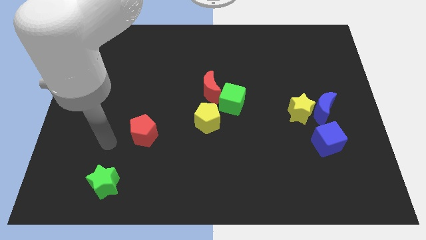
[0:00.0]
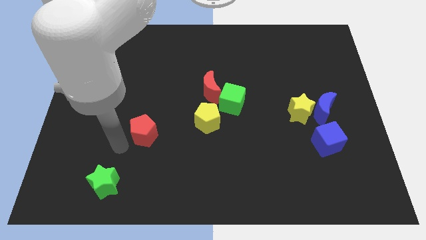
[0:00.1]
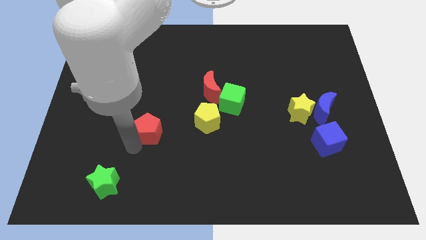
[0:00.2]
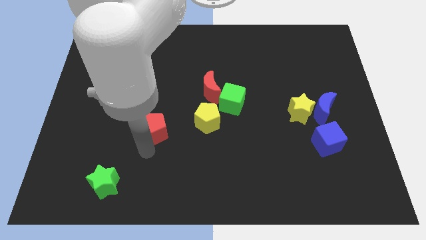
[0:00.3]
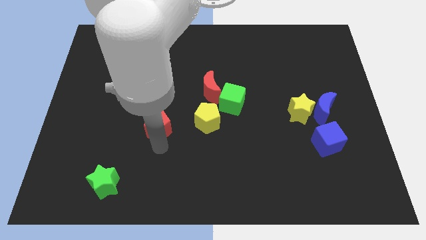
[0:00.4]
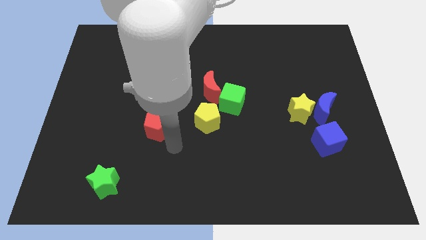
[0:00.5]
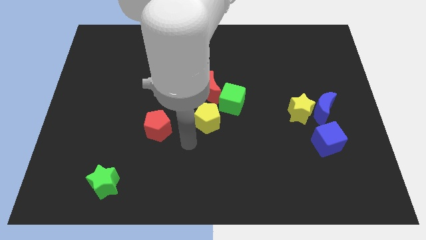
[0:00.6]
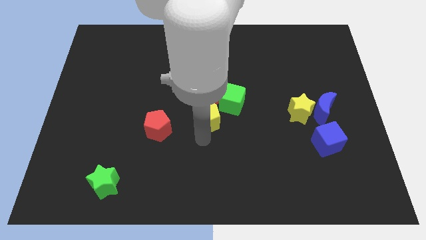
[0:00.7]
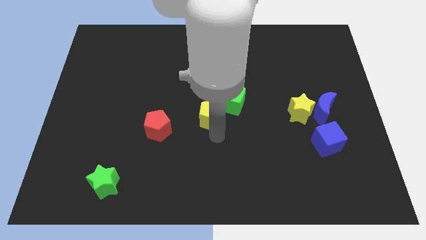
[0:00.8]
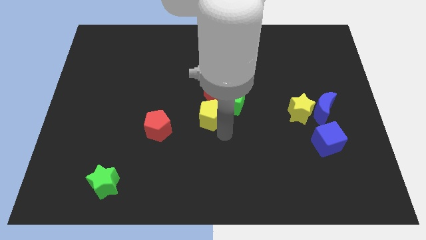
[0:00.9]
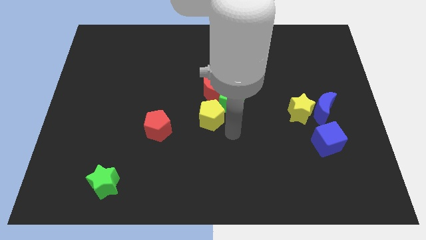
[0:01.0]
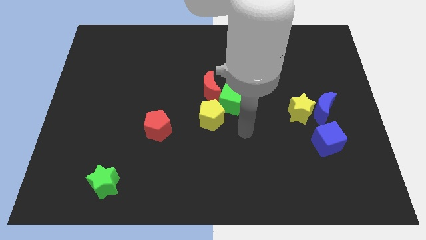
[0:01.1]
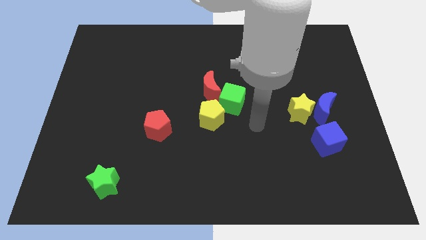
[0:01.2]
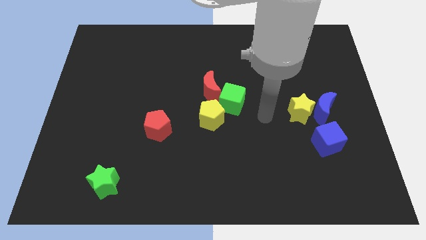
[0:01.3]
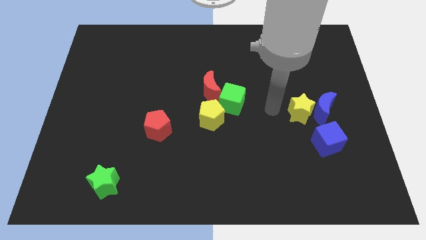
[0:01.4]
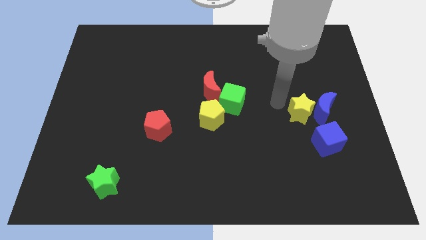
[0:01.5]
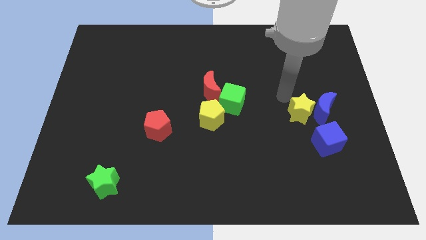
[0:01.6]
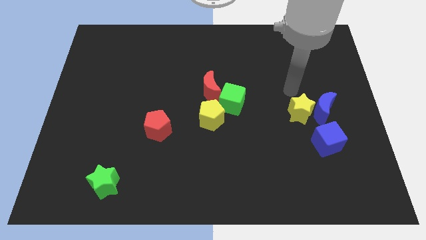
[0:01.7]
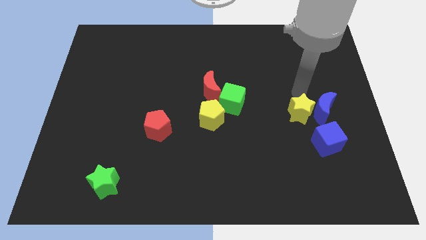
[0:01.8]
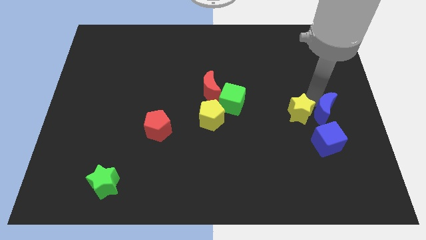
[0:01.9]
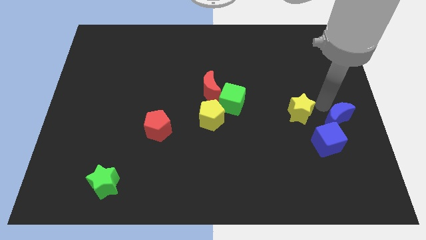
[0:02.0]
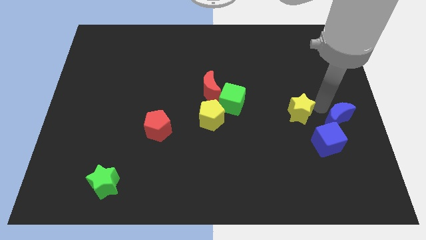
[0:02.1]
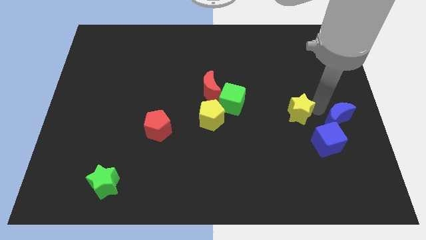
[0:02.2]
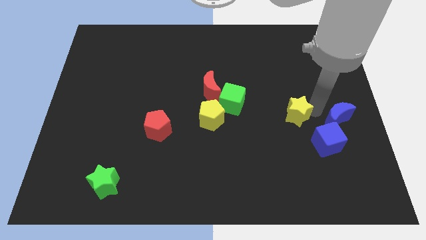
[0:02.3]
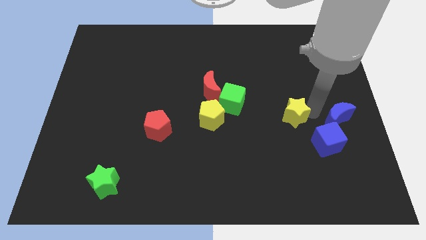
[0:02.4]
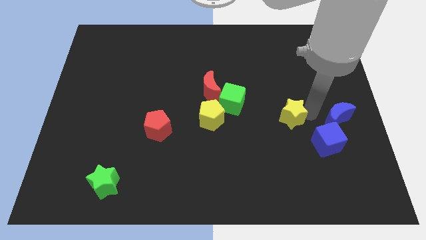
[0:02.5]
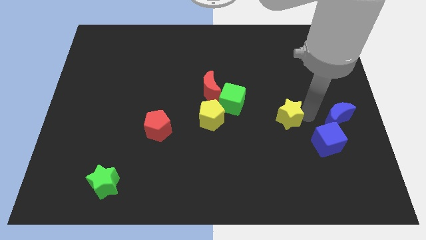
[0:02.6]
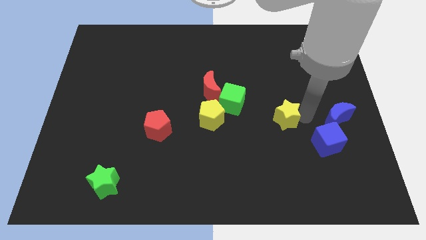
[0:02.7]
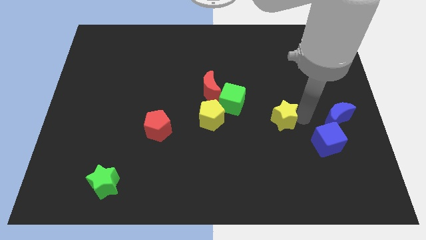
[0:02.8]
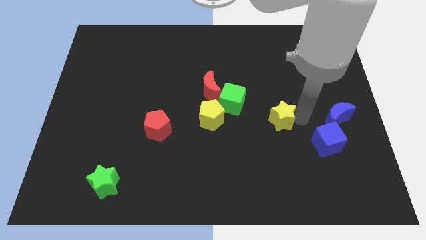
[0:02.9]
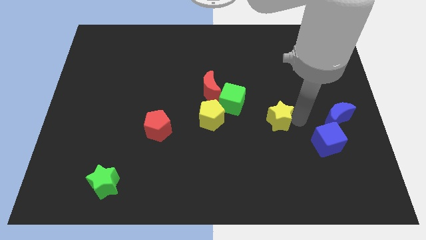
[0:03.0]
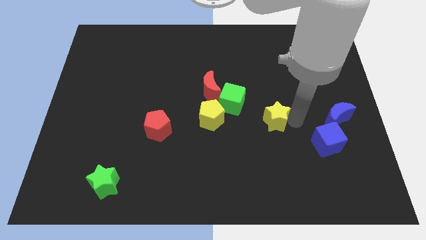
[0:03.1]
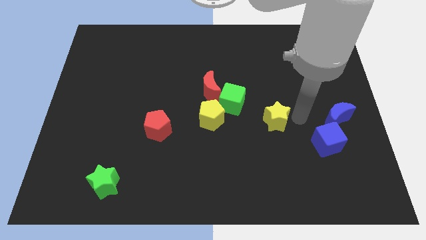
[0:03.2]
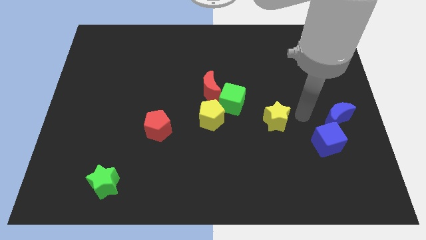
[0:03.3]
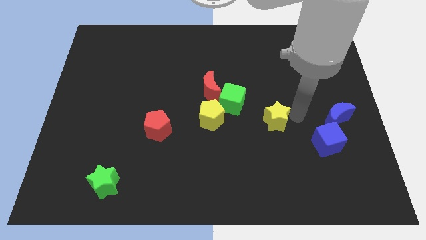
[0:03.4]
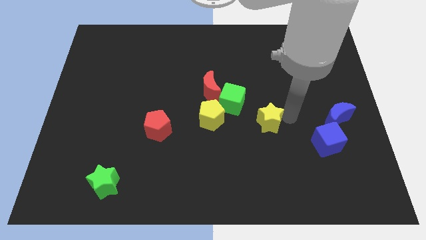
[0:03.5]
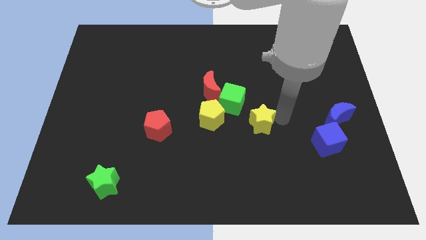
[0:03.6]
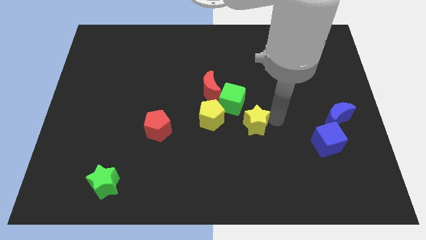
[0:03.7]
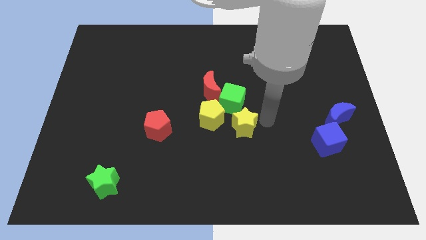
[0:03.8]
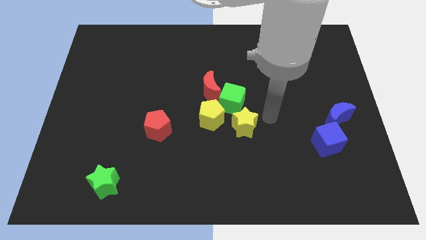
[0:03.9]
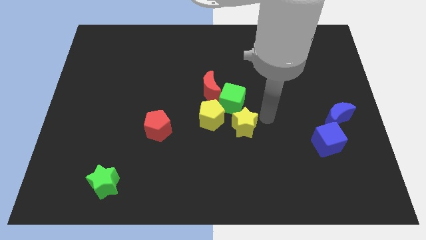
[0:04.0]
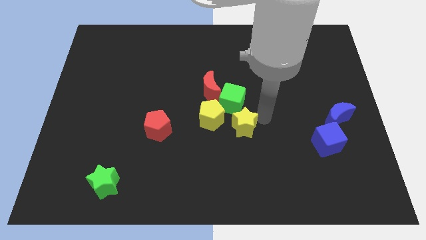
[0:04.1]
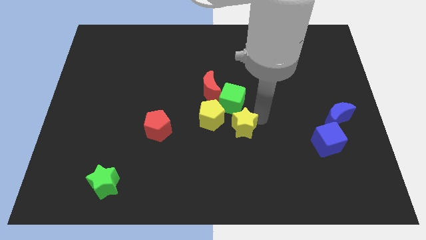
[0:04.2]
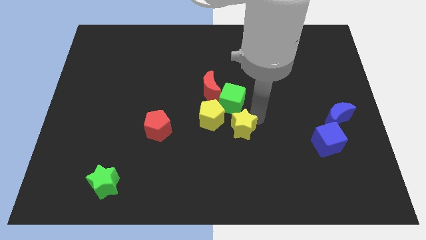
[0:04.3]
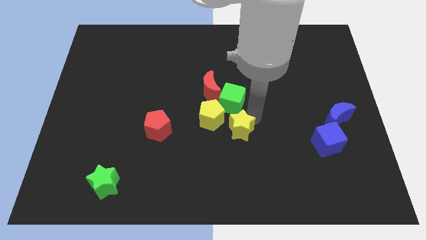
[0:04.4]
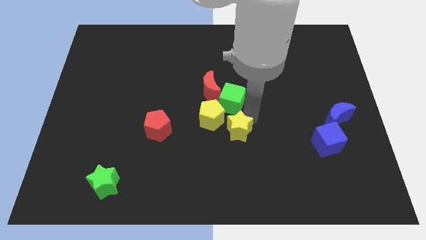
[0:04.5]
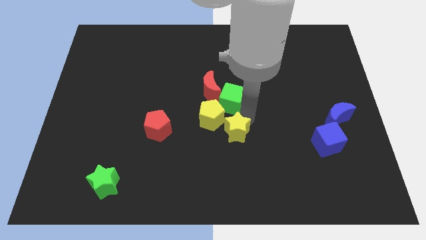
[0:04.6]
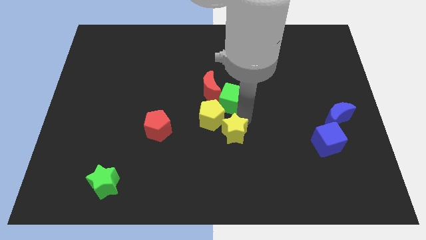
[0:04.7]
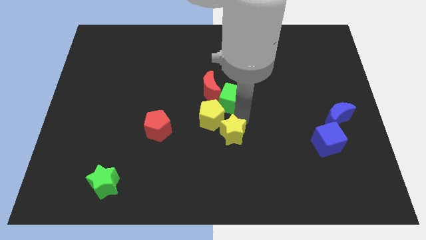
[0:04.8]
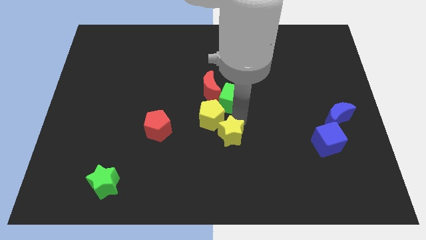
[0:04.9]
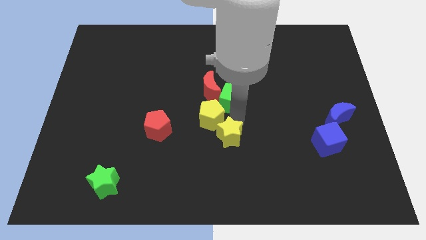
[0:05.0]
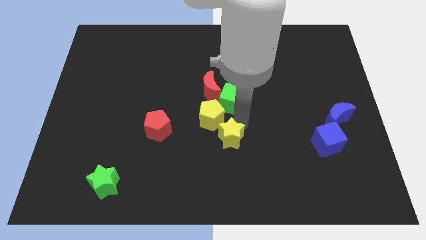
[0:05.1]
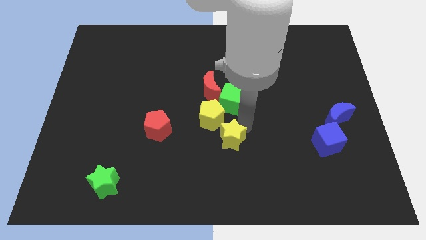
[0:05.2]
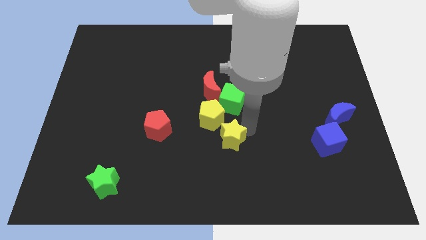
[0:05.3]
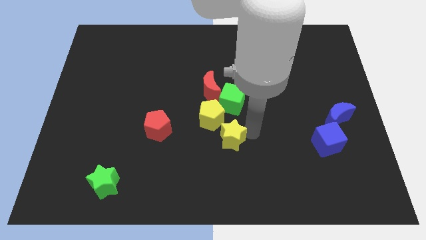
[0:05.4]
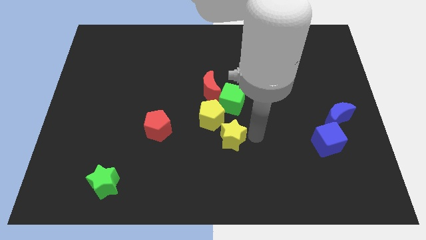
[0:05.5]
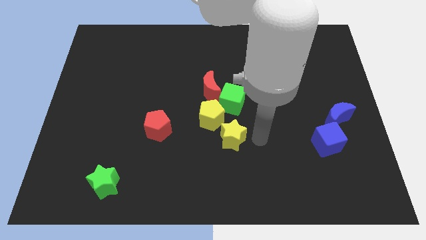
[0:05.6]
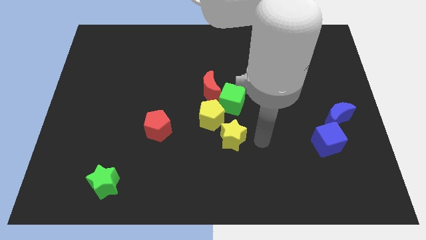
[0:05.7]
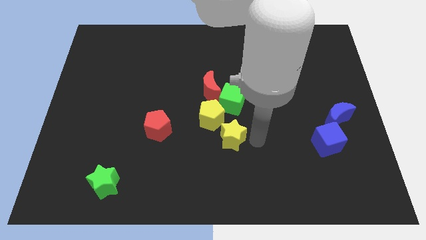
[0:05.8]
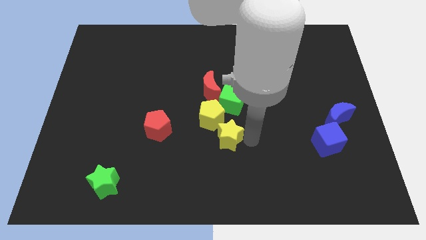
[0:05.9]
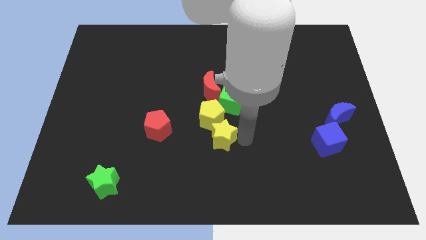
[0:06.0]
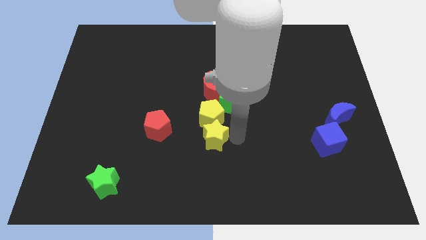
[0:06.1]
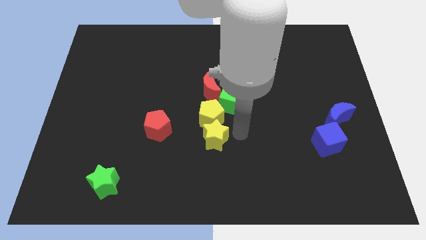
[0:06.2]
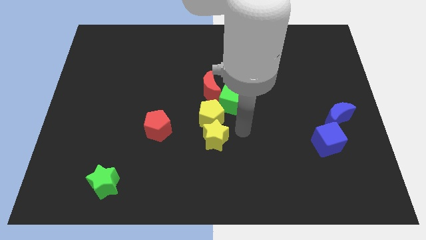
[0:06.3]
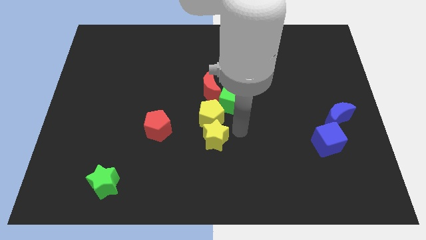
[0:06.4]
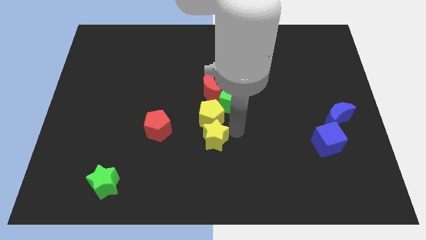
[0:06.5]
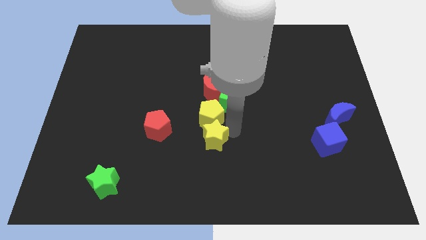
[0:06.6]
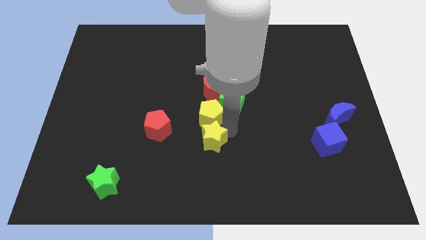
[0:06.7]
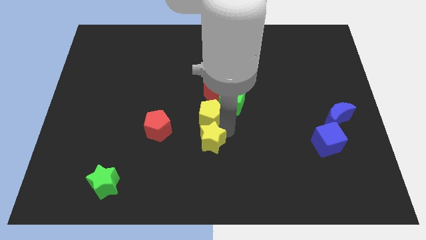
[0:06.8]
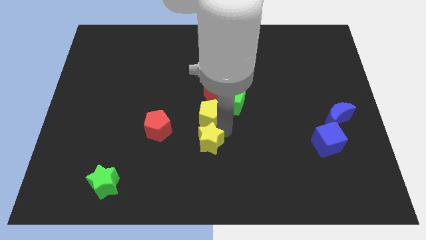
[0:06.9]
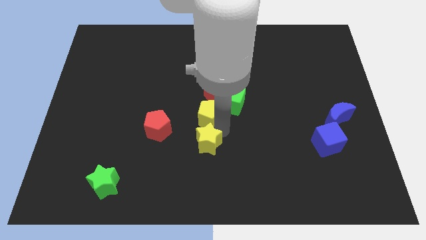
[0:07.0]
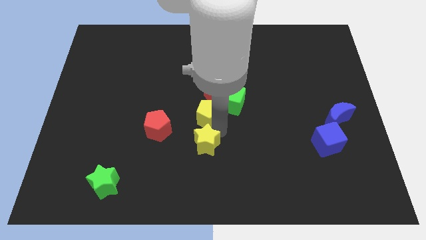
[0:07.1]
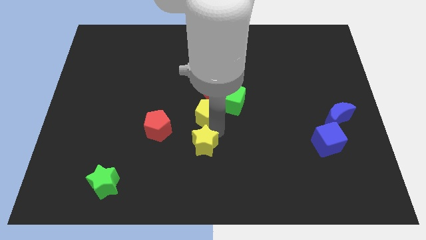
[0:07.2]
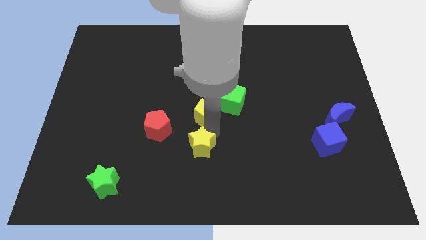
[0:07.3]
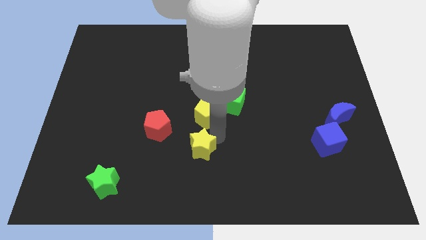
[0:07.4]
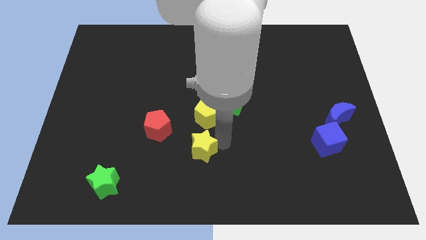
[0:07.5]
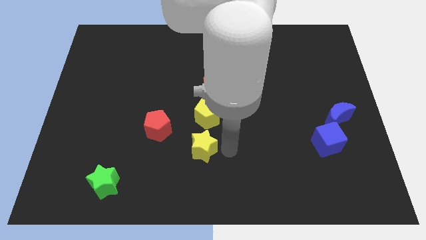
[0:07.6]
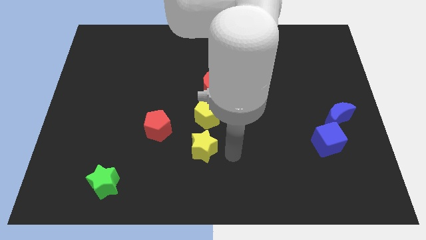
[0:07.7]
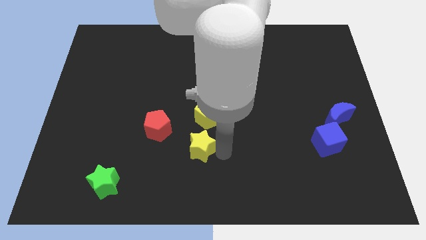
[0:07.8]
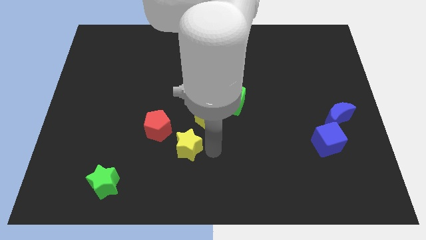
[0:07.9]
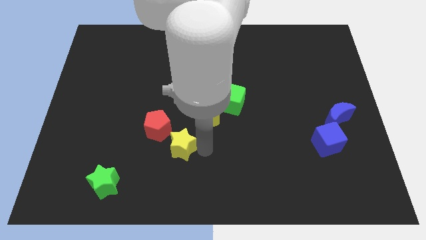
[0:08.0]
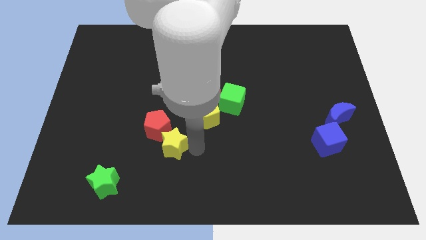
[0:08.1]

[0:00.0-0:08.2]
put the yellow star next to the red pentagon
